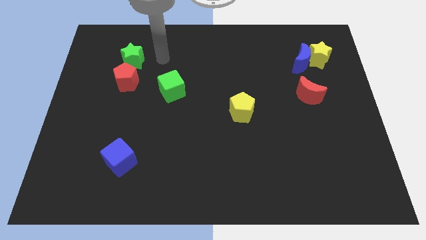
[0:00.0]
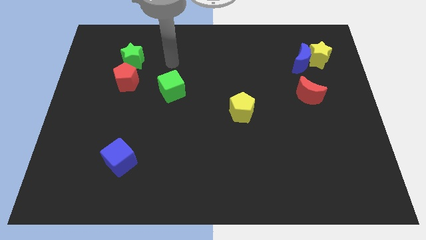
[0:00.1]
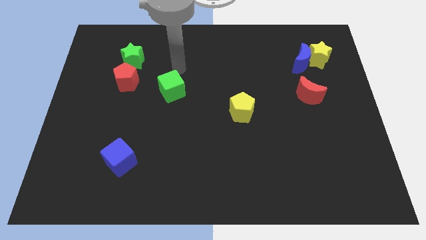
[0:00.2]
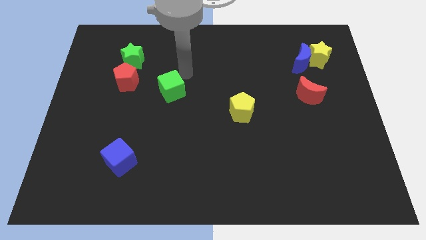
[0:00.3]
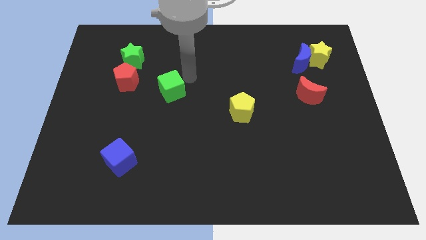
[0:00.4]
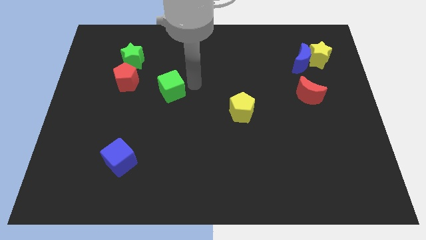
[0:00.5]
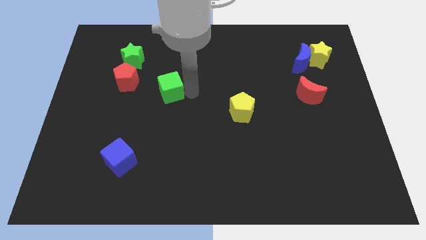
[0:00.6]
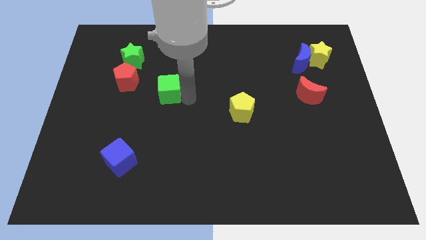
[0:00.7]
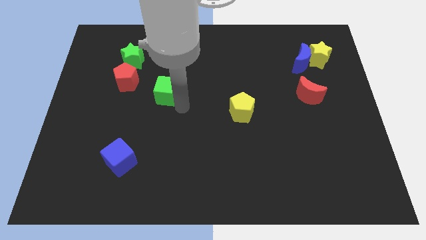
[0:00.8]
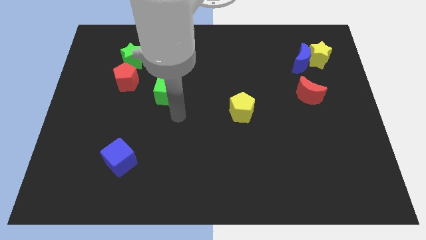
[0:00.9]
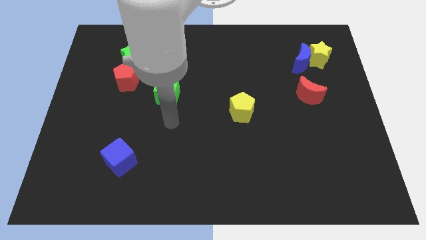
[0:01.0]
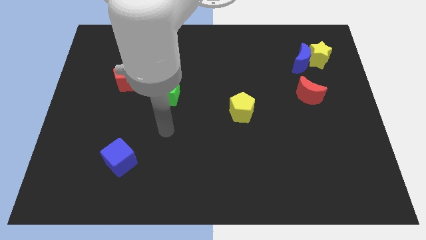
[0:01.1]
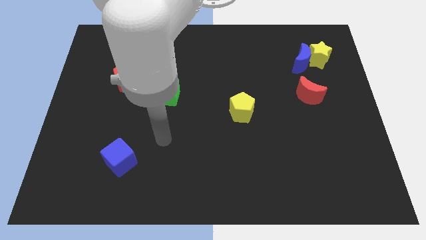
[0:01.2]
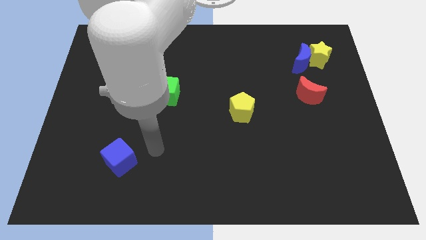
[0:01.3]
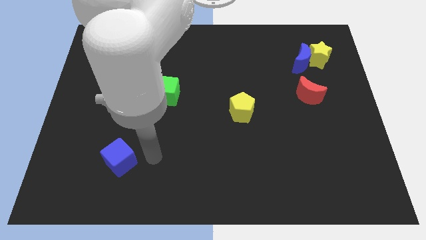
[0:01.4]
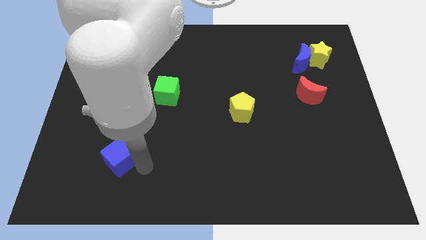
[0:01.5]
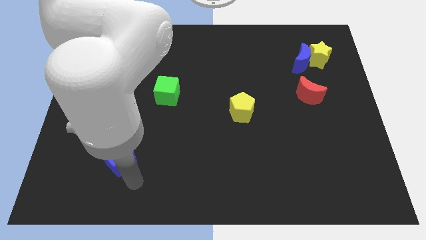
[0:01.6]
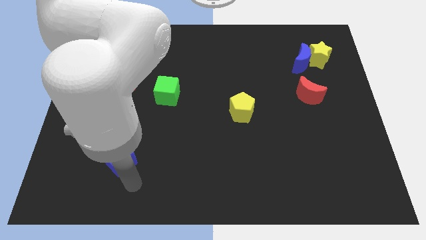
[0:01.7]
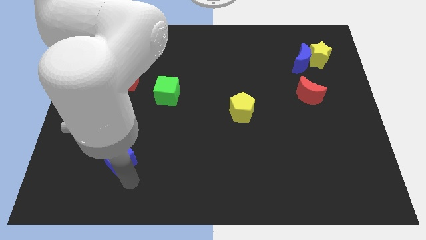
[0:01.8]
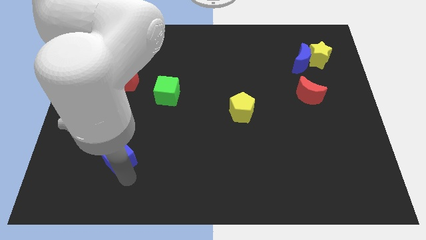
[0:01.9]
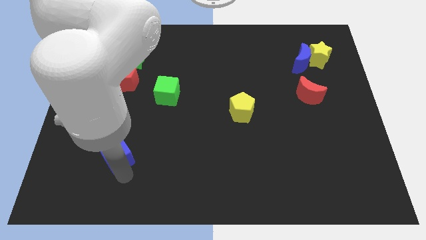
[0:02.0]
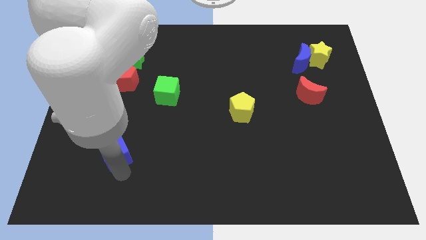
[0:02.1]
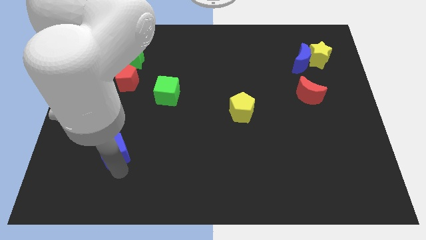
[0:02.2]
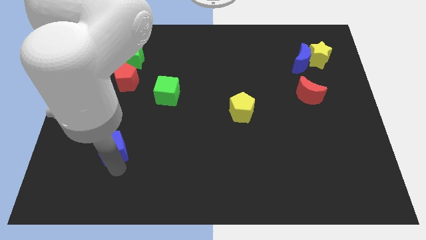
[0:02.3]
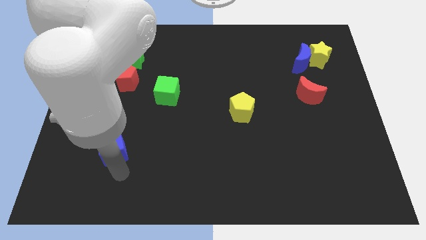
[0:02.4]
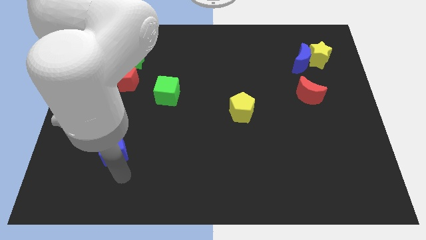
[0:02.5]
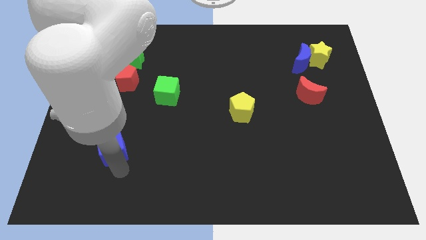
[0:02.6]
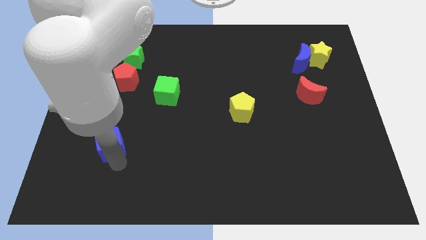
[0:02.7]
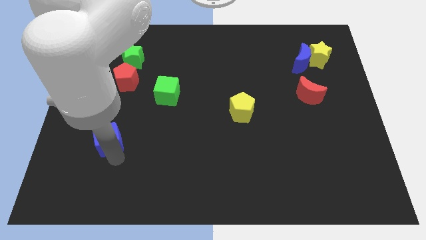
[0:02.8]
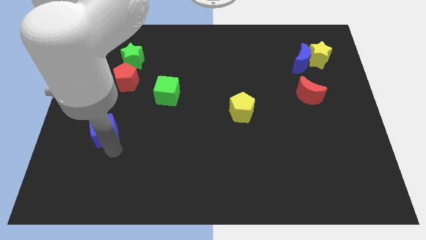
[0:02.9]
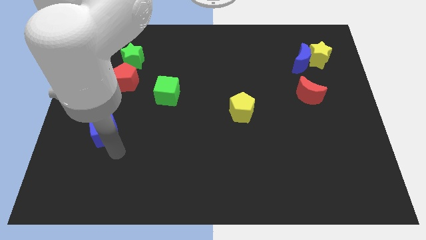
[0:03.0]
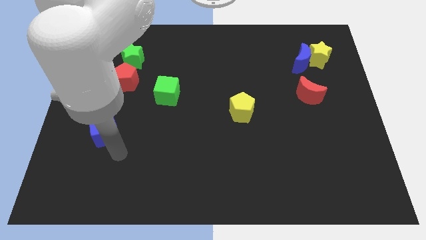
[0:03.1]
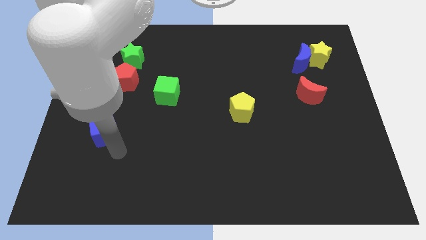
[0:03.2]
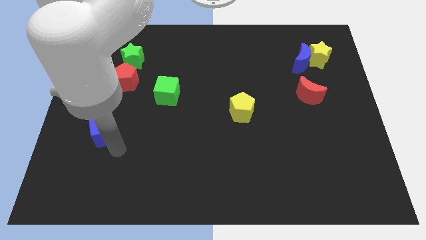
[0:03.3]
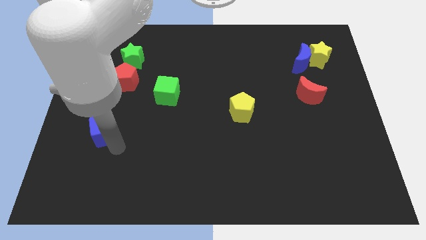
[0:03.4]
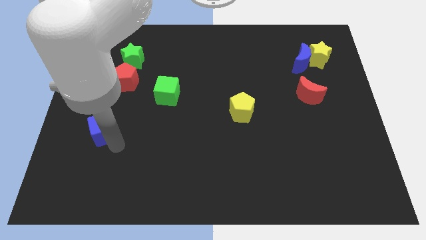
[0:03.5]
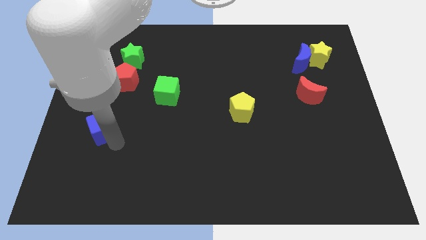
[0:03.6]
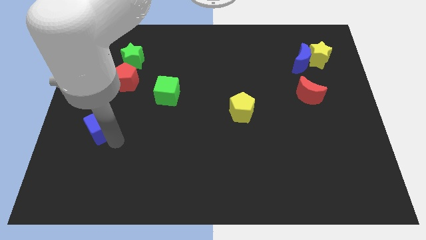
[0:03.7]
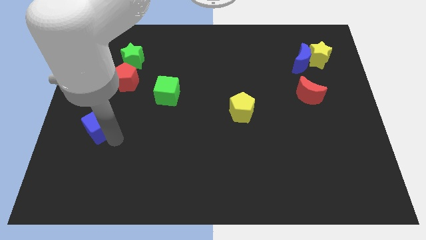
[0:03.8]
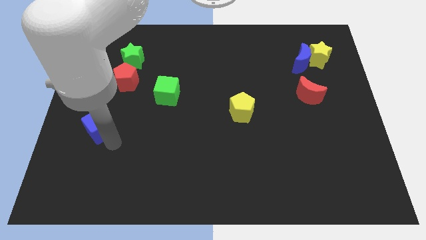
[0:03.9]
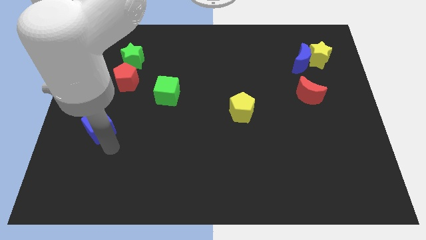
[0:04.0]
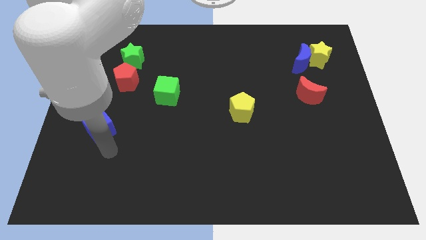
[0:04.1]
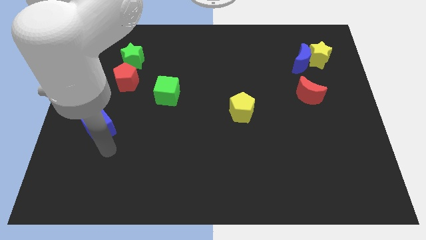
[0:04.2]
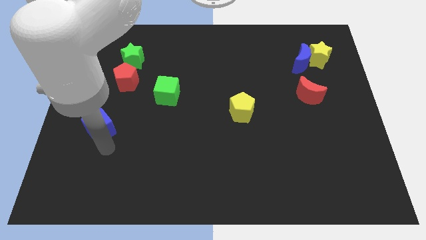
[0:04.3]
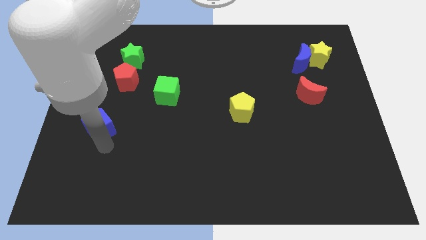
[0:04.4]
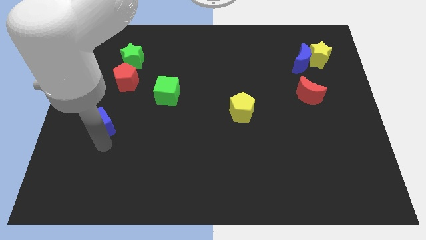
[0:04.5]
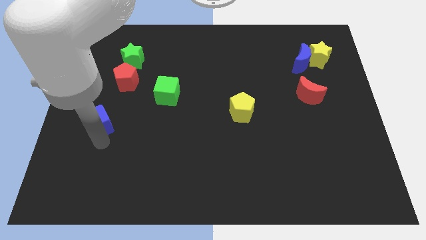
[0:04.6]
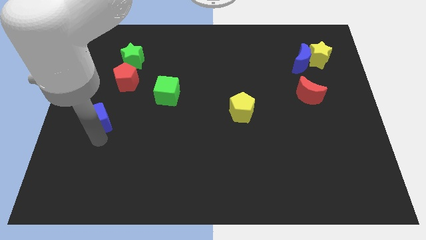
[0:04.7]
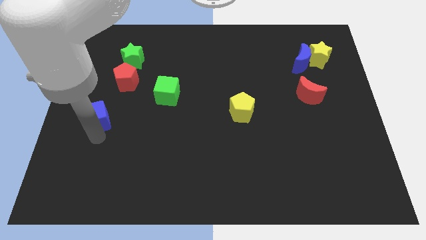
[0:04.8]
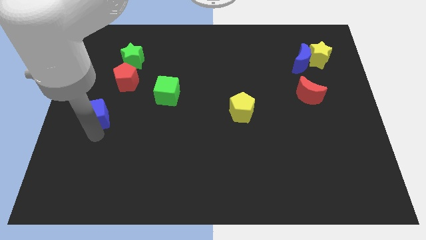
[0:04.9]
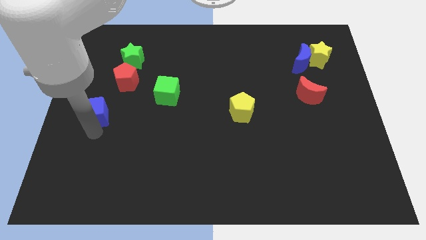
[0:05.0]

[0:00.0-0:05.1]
slide the blue cube to the bottom left of the red pentagon

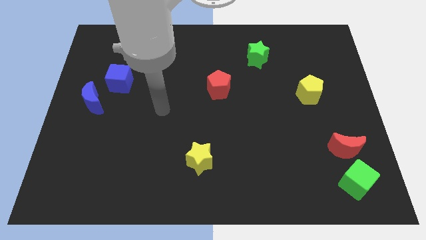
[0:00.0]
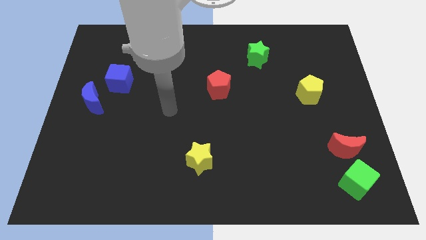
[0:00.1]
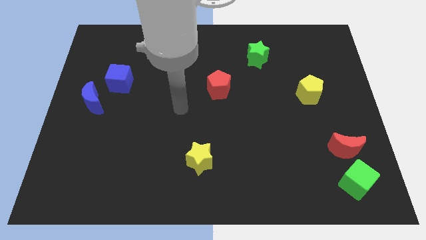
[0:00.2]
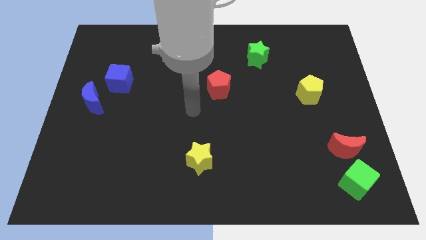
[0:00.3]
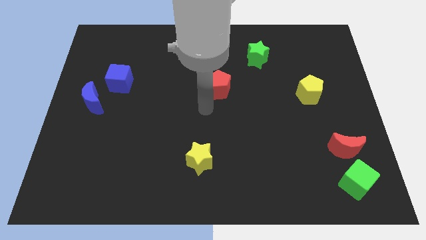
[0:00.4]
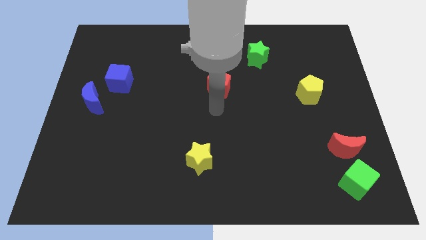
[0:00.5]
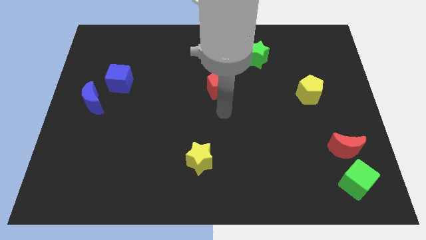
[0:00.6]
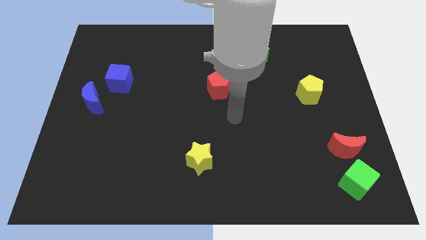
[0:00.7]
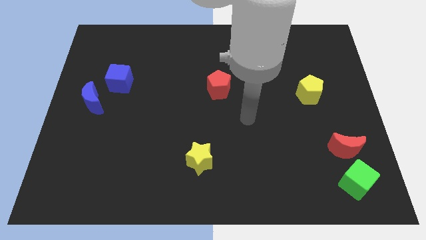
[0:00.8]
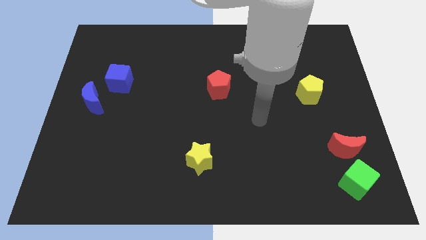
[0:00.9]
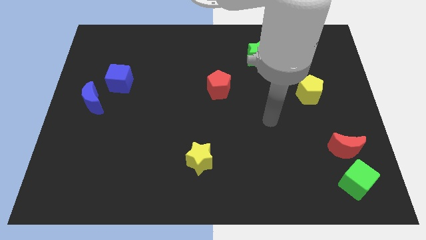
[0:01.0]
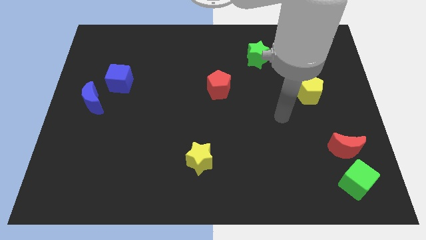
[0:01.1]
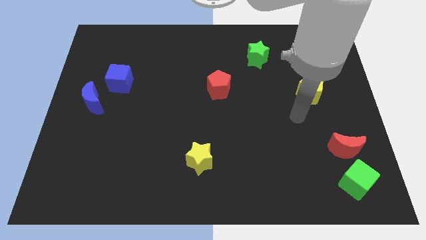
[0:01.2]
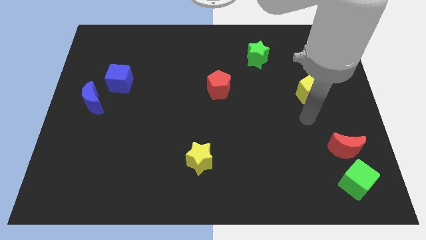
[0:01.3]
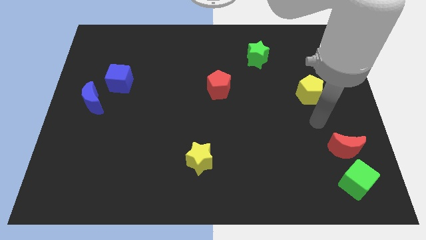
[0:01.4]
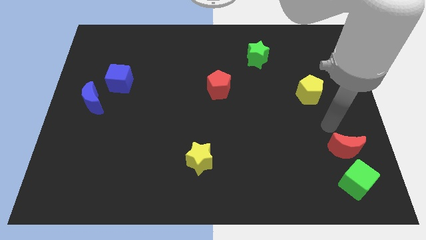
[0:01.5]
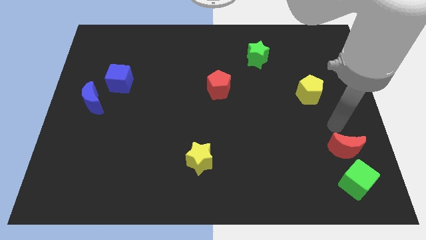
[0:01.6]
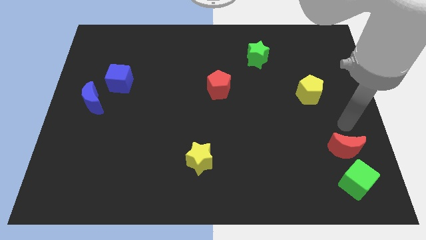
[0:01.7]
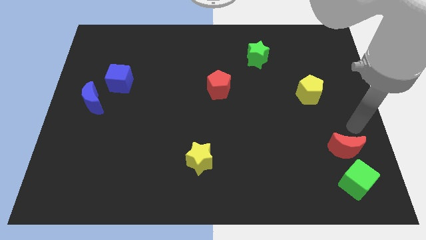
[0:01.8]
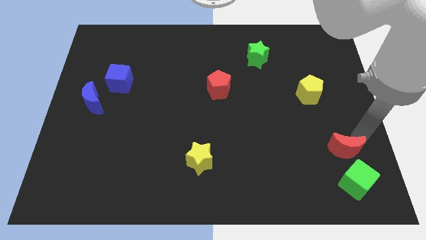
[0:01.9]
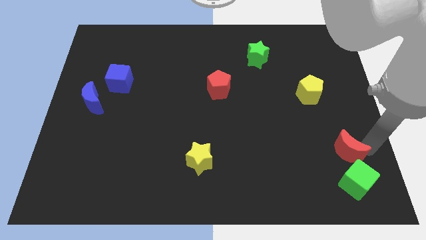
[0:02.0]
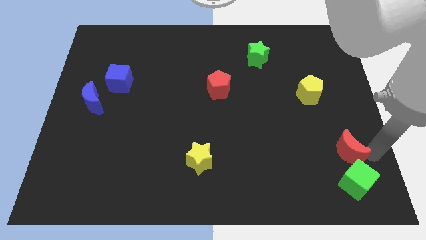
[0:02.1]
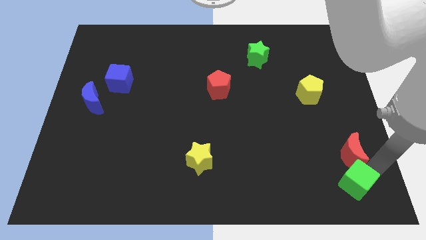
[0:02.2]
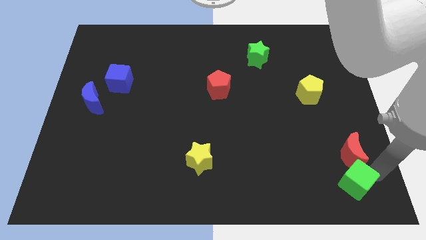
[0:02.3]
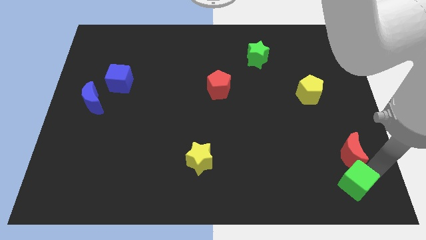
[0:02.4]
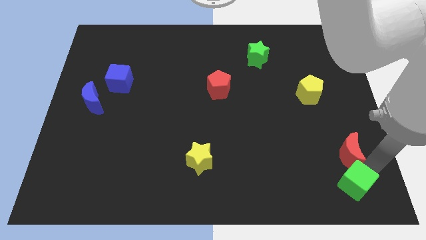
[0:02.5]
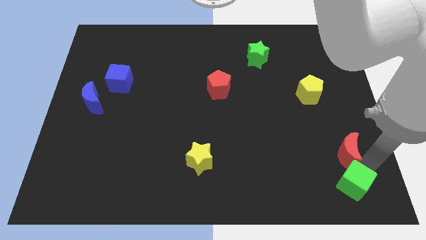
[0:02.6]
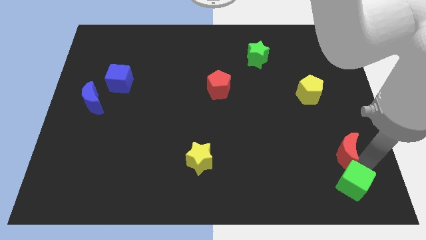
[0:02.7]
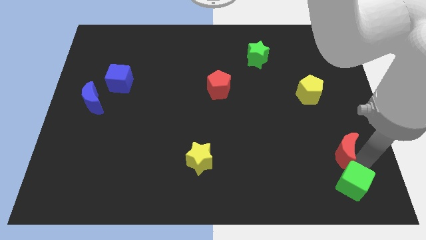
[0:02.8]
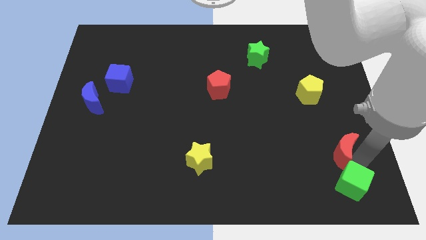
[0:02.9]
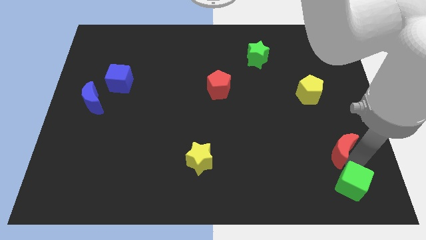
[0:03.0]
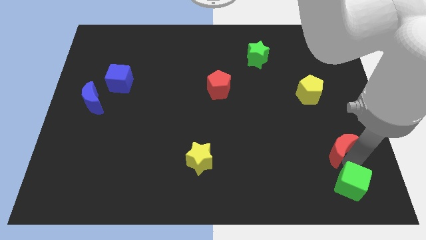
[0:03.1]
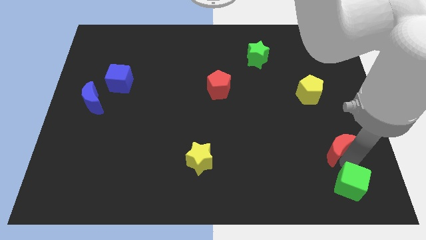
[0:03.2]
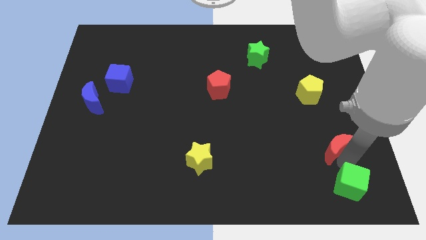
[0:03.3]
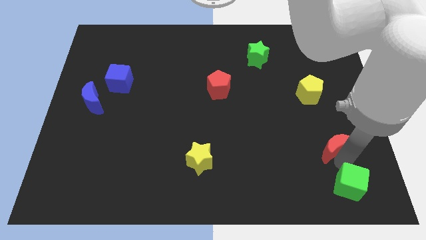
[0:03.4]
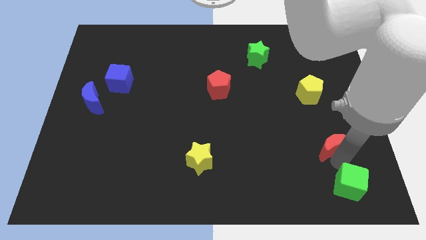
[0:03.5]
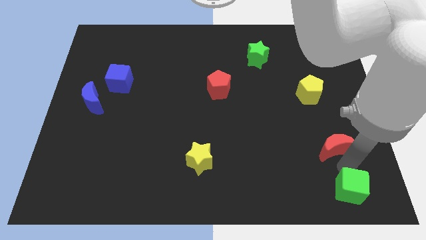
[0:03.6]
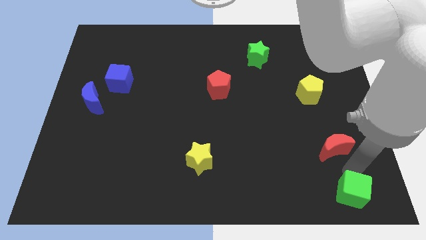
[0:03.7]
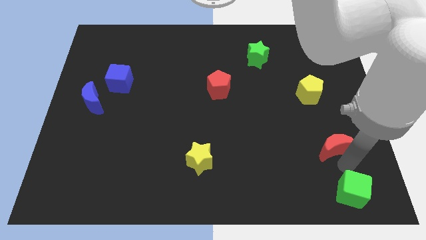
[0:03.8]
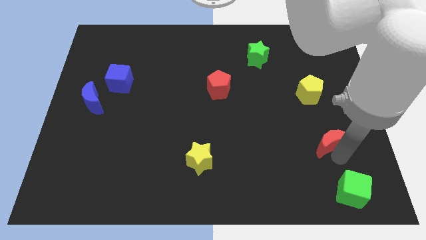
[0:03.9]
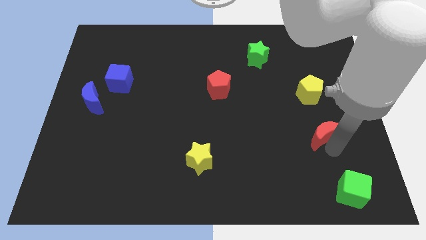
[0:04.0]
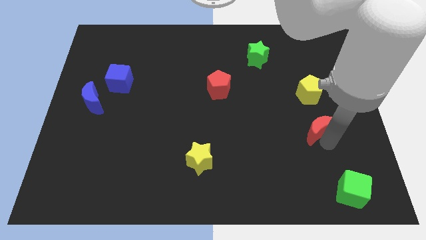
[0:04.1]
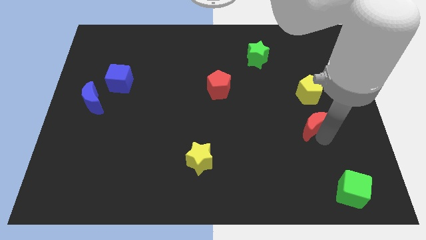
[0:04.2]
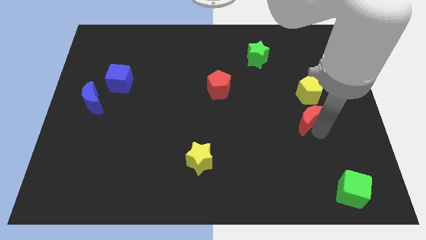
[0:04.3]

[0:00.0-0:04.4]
move the red moon to the bottom left of the yellow pentagon
